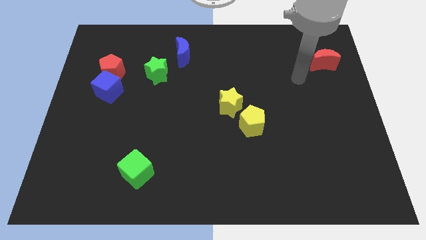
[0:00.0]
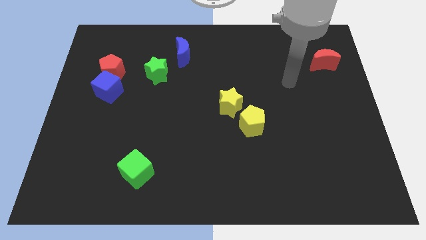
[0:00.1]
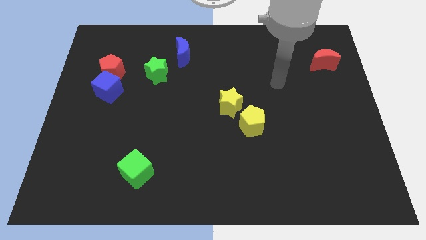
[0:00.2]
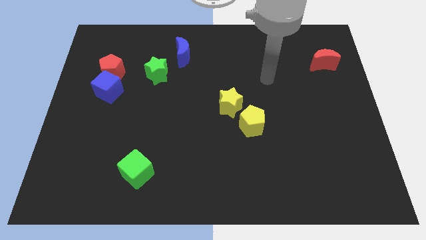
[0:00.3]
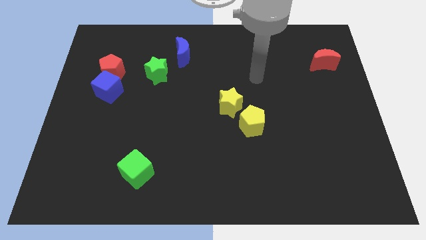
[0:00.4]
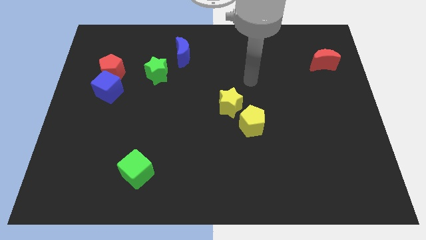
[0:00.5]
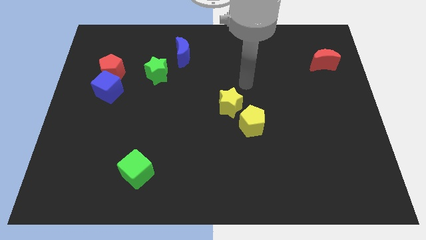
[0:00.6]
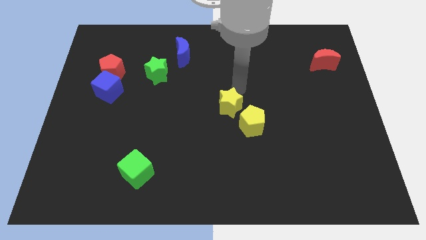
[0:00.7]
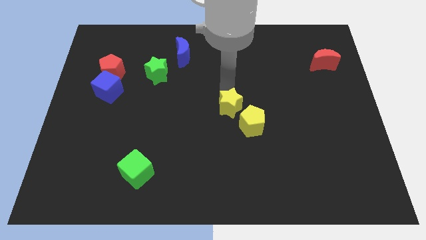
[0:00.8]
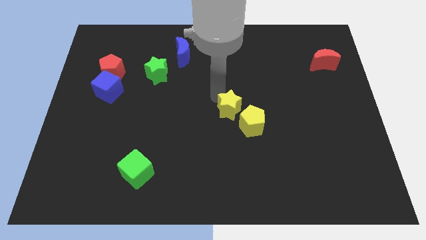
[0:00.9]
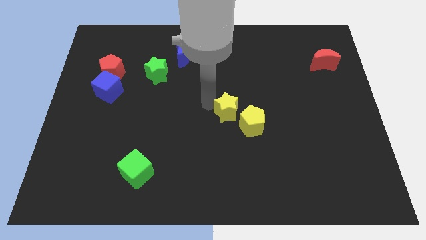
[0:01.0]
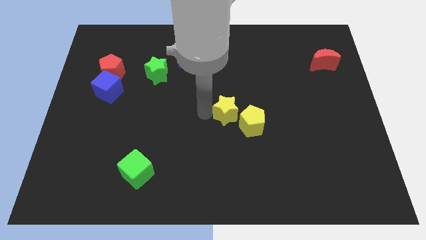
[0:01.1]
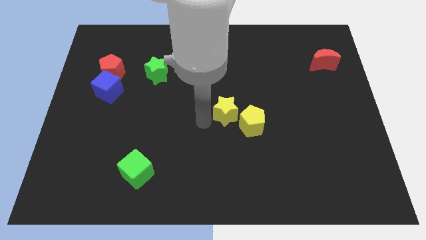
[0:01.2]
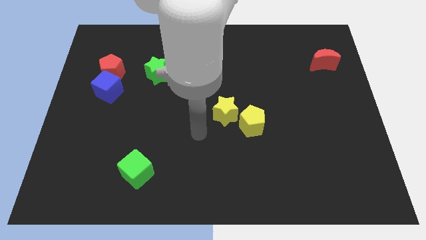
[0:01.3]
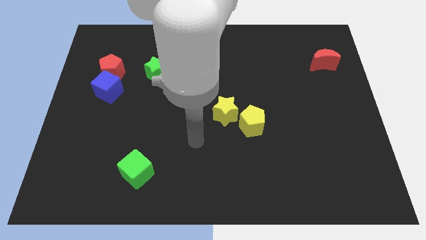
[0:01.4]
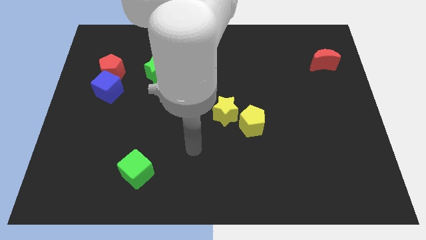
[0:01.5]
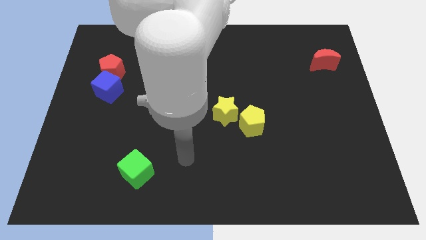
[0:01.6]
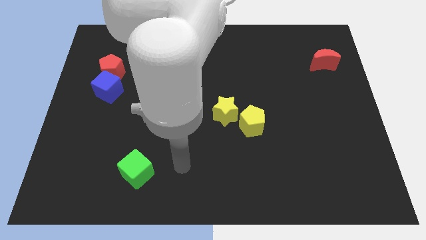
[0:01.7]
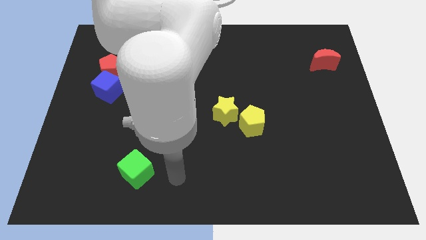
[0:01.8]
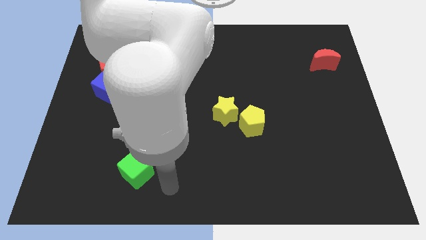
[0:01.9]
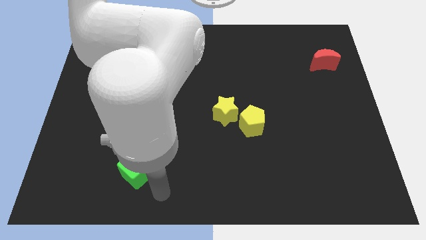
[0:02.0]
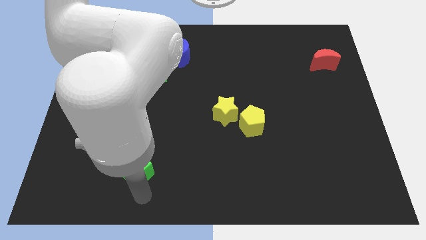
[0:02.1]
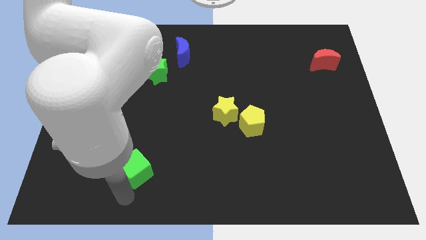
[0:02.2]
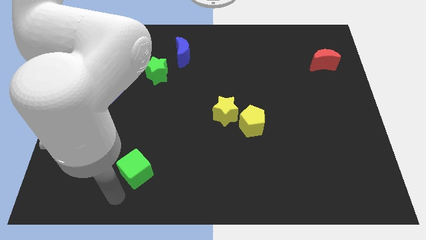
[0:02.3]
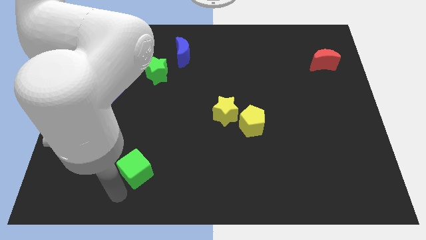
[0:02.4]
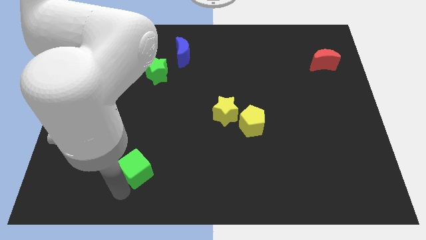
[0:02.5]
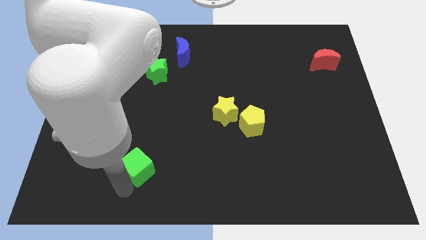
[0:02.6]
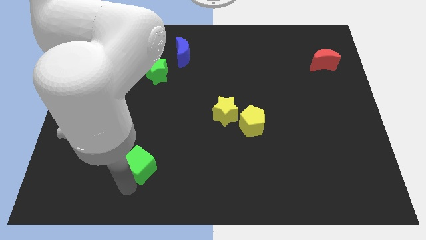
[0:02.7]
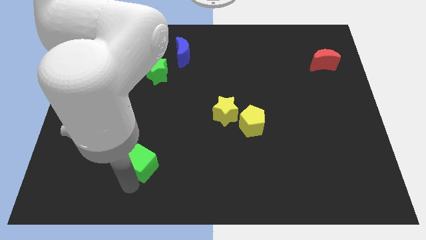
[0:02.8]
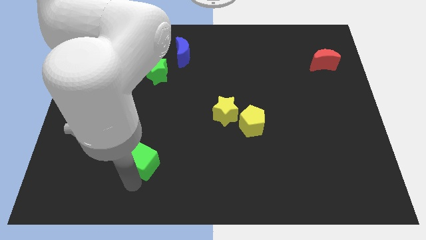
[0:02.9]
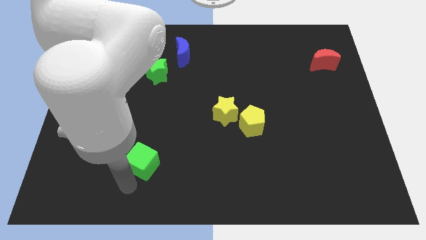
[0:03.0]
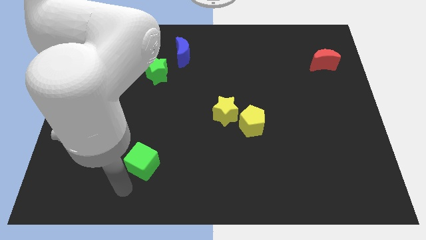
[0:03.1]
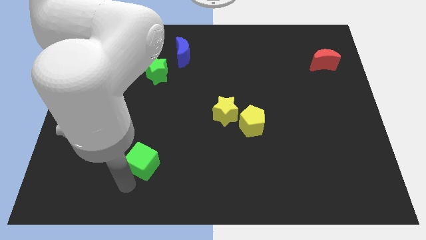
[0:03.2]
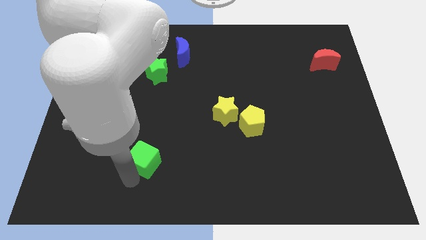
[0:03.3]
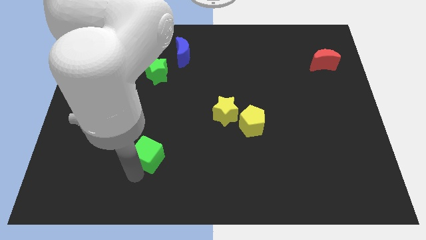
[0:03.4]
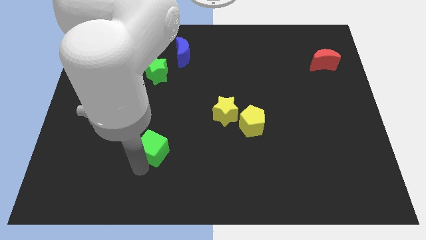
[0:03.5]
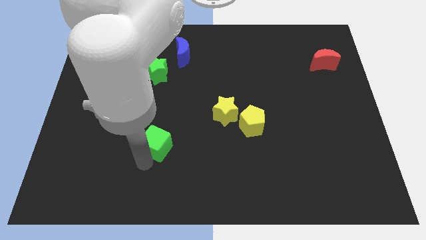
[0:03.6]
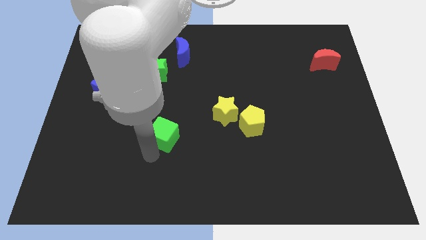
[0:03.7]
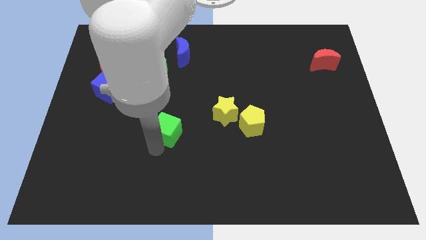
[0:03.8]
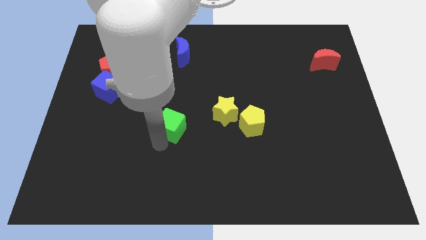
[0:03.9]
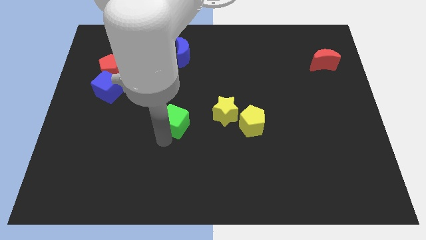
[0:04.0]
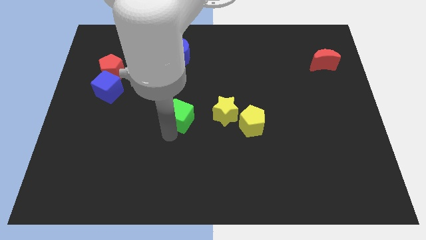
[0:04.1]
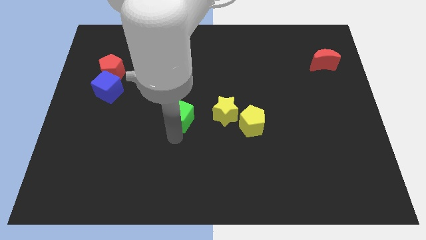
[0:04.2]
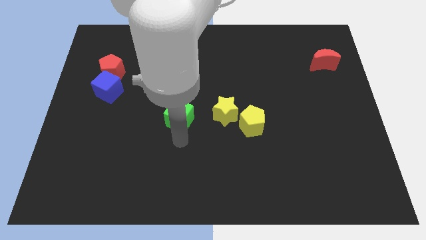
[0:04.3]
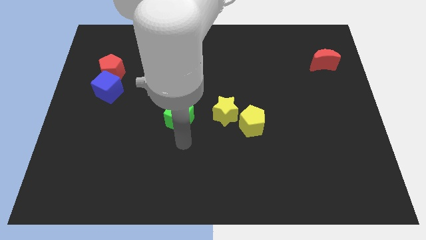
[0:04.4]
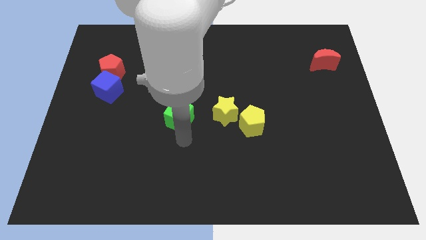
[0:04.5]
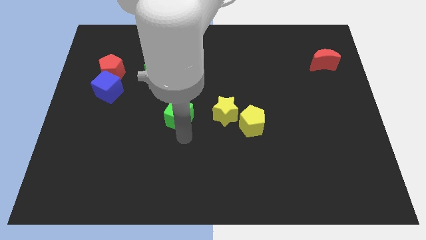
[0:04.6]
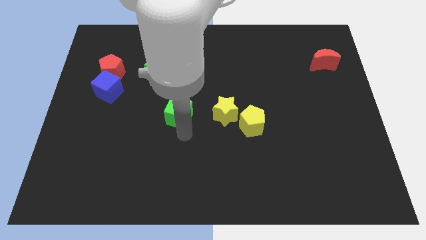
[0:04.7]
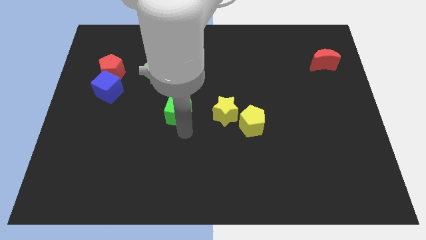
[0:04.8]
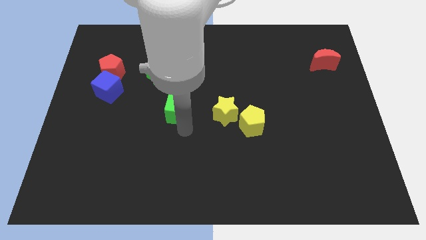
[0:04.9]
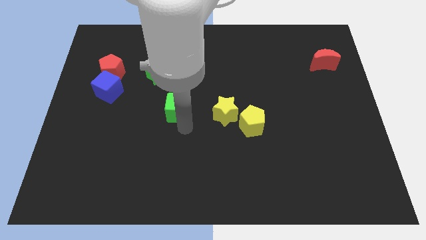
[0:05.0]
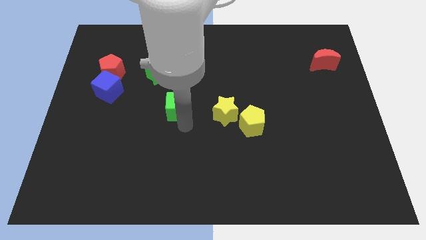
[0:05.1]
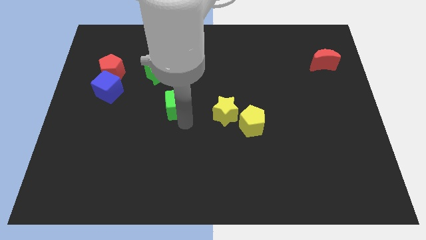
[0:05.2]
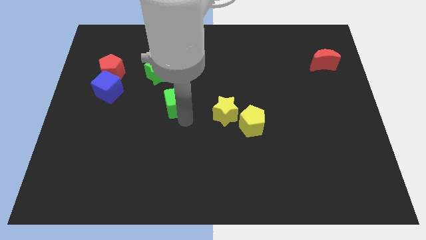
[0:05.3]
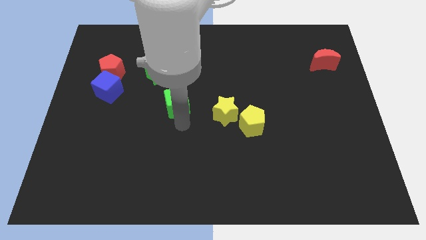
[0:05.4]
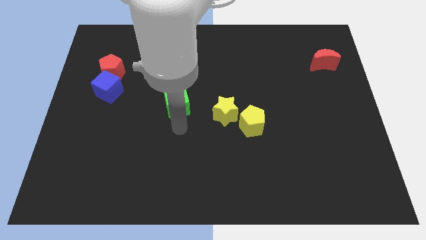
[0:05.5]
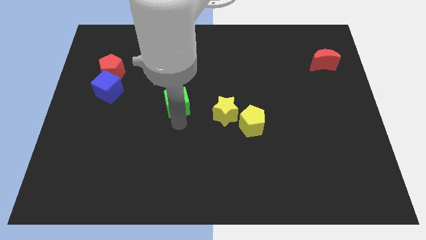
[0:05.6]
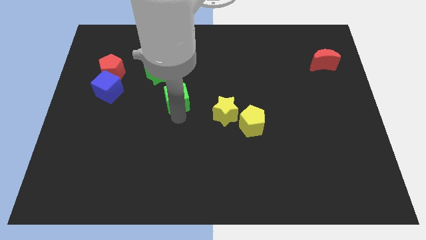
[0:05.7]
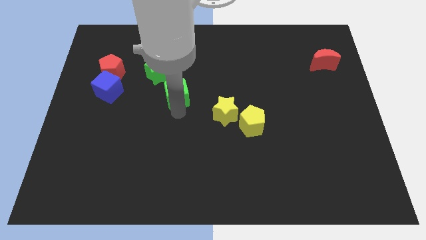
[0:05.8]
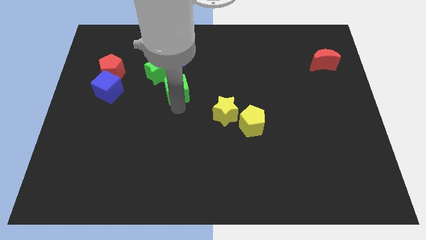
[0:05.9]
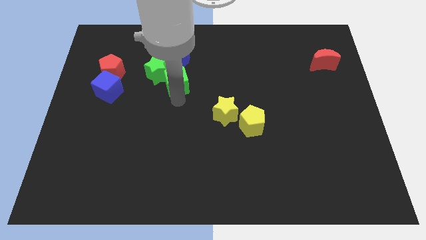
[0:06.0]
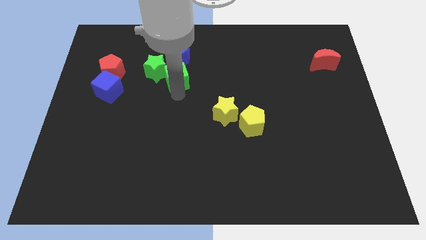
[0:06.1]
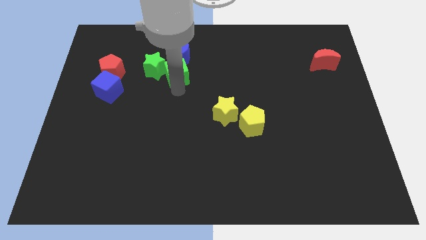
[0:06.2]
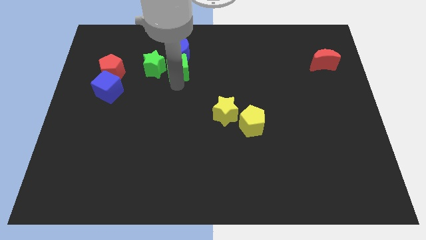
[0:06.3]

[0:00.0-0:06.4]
move the green cube close to the blue moon

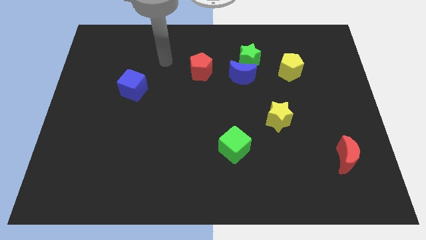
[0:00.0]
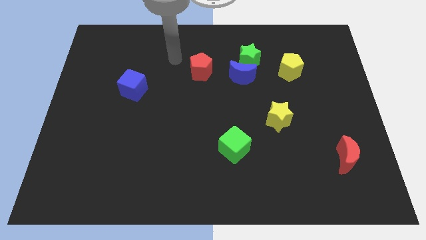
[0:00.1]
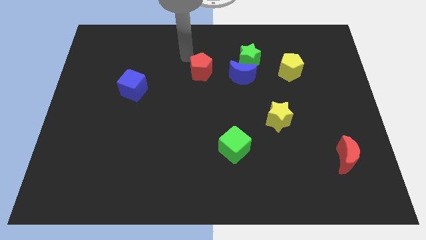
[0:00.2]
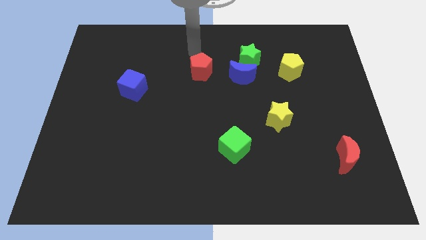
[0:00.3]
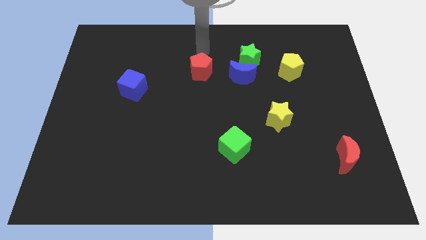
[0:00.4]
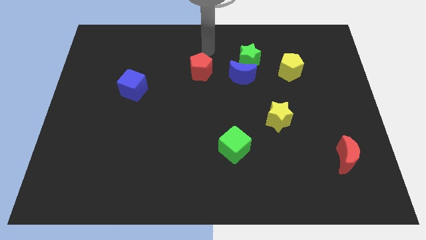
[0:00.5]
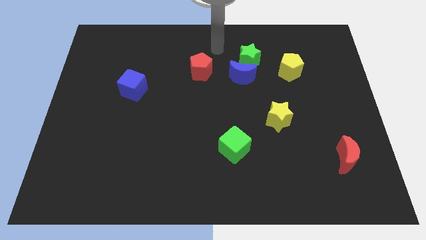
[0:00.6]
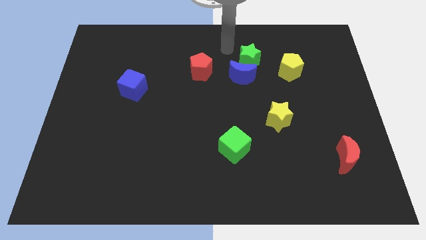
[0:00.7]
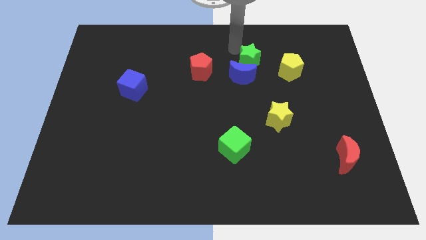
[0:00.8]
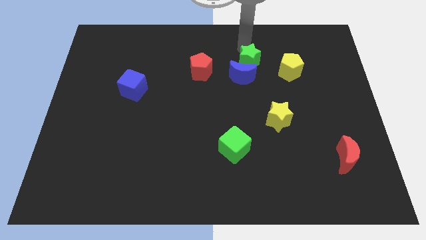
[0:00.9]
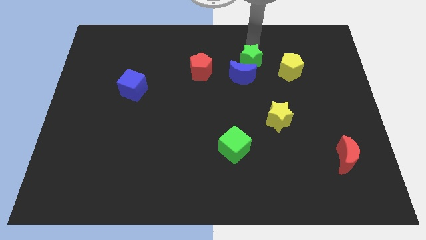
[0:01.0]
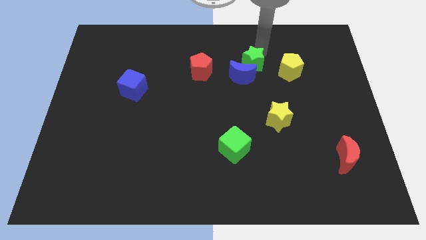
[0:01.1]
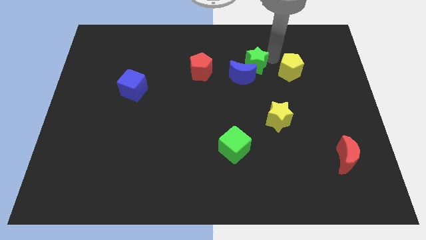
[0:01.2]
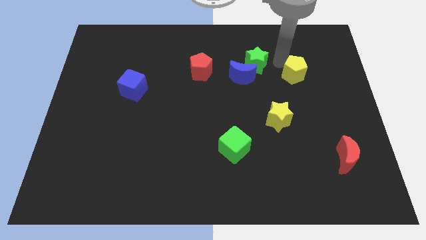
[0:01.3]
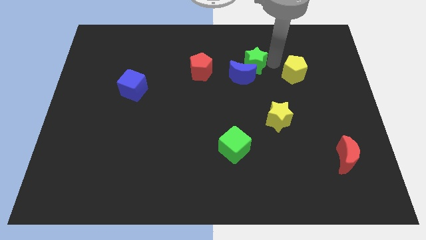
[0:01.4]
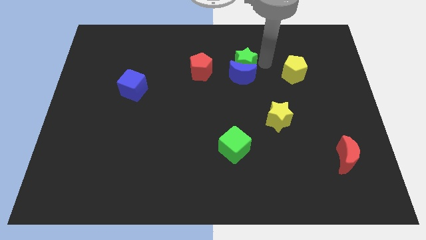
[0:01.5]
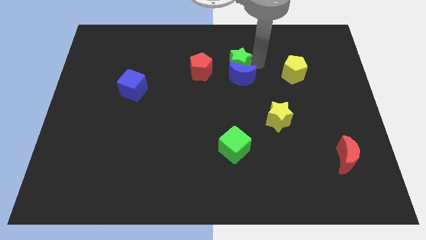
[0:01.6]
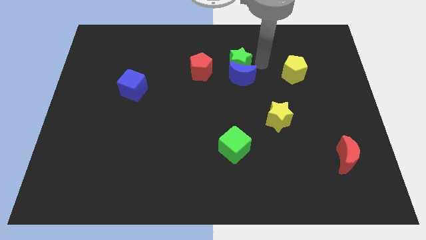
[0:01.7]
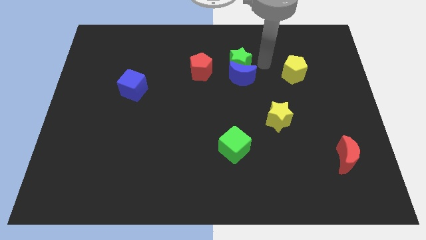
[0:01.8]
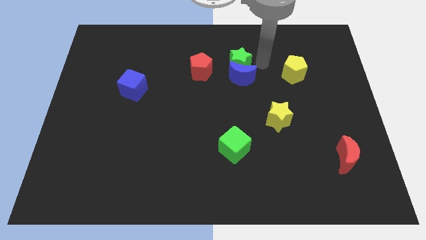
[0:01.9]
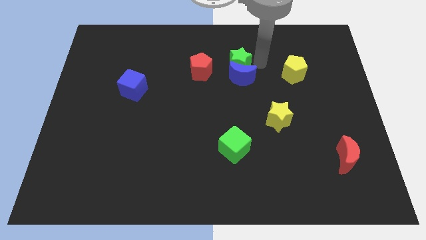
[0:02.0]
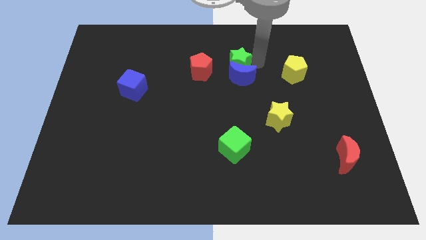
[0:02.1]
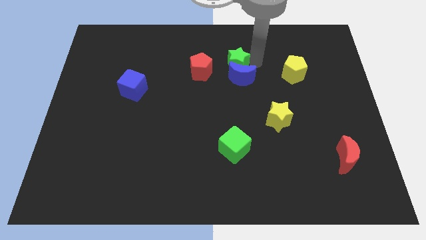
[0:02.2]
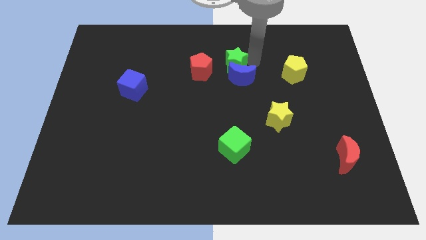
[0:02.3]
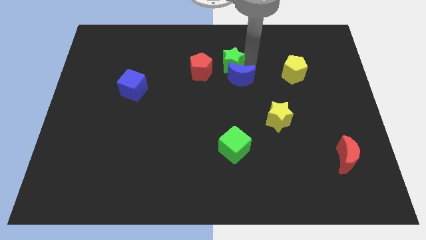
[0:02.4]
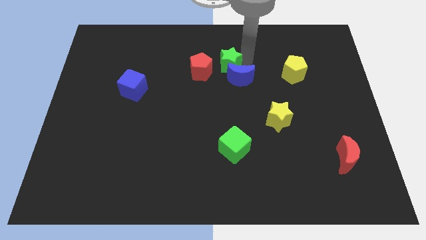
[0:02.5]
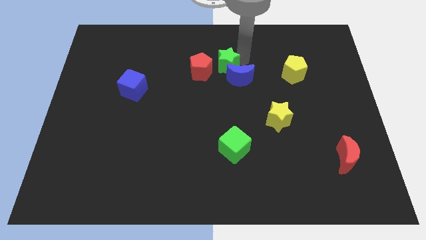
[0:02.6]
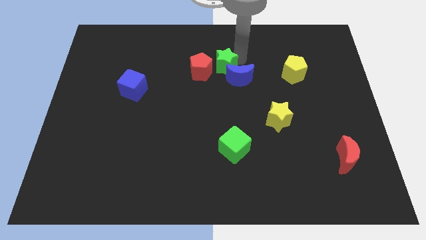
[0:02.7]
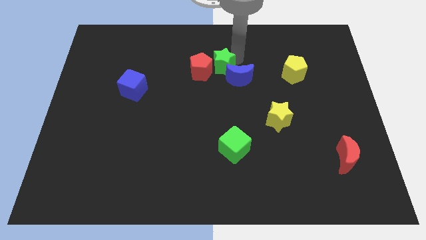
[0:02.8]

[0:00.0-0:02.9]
move the green star to the red pentagon
